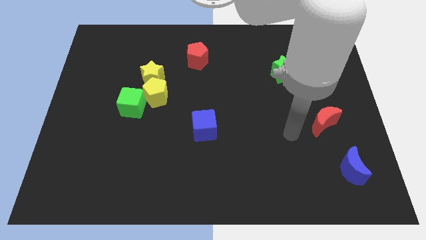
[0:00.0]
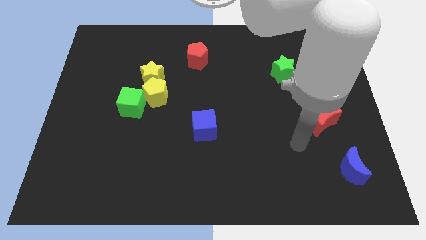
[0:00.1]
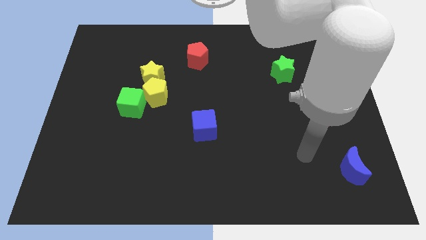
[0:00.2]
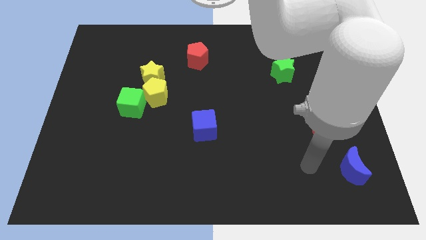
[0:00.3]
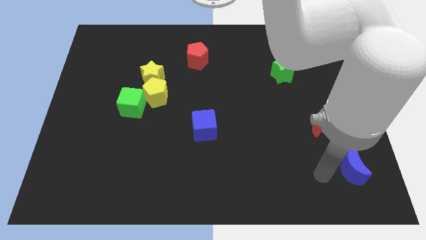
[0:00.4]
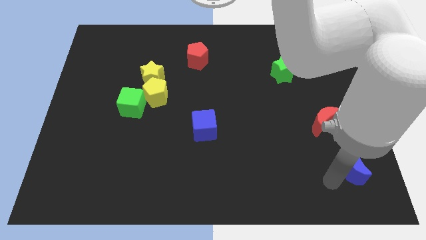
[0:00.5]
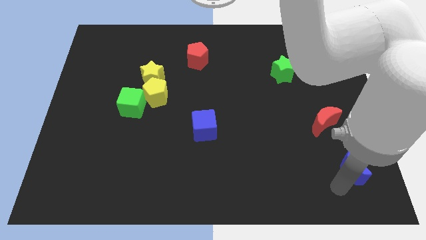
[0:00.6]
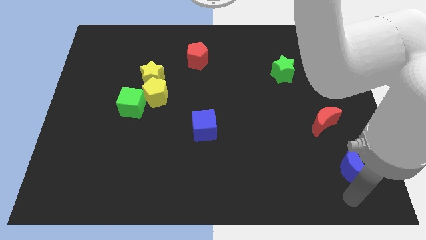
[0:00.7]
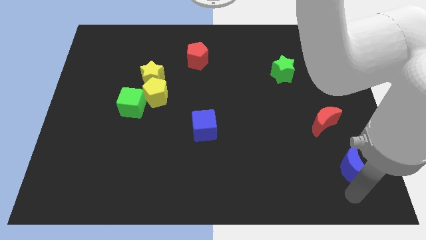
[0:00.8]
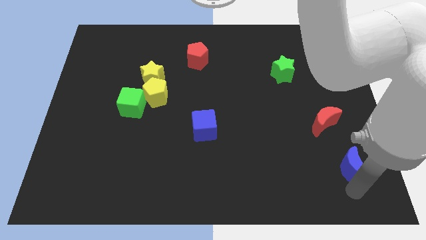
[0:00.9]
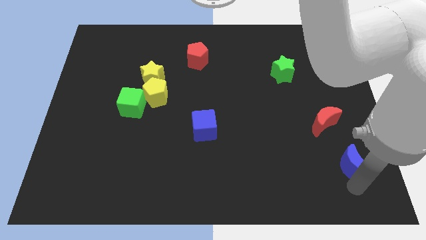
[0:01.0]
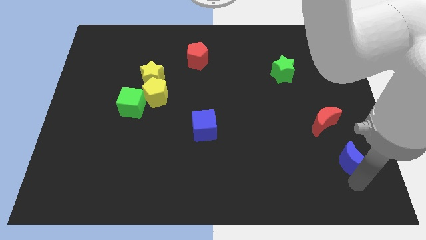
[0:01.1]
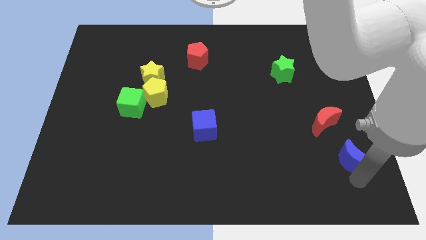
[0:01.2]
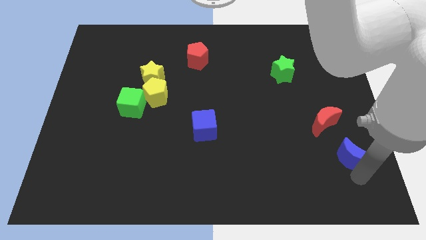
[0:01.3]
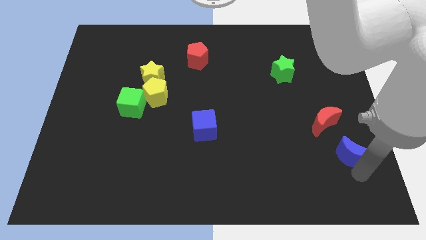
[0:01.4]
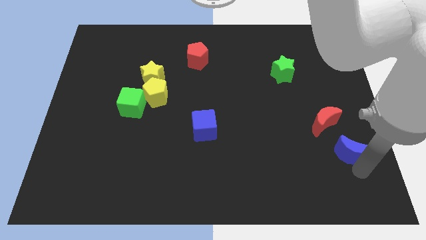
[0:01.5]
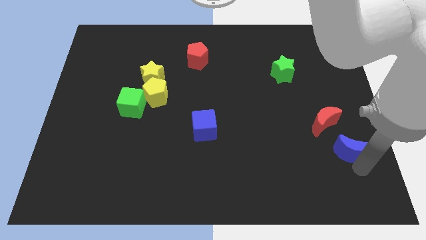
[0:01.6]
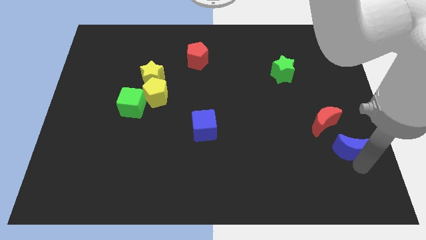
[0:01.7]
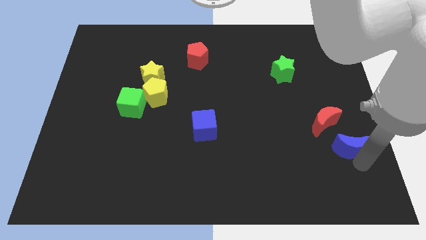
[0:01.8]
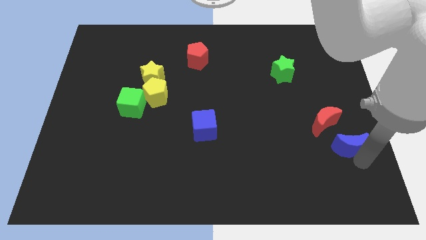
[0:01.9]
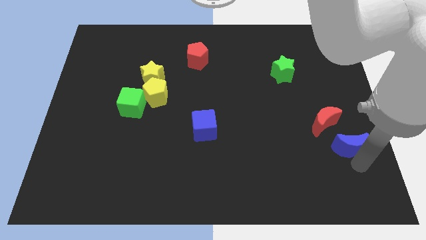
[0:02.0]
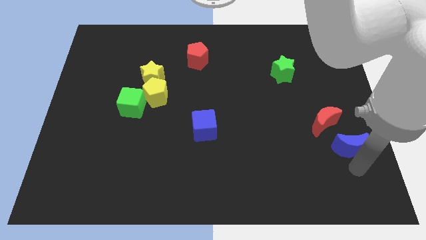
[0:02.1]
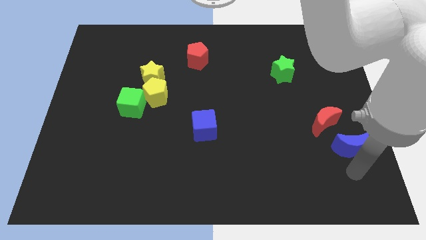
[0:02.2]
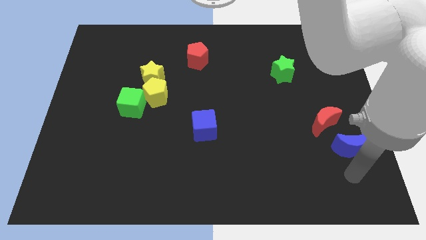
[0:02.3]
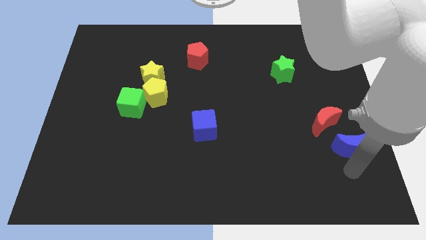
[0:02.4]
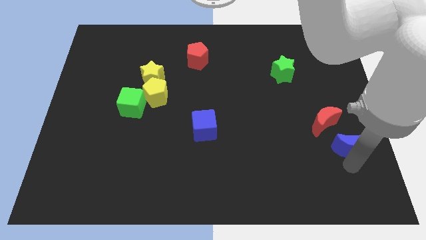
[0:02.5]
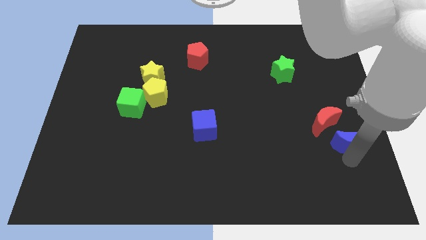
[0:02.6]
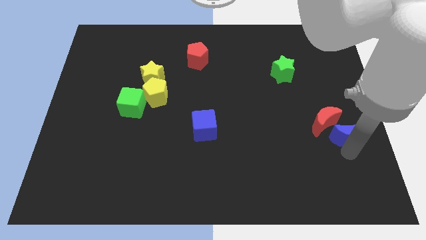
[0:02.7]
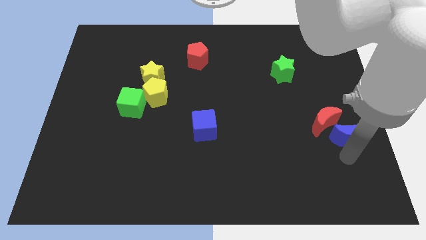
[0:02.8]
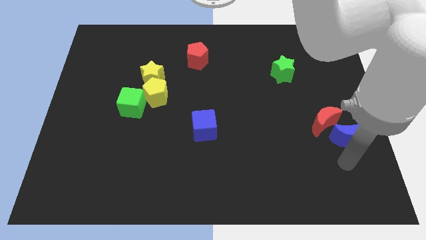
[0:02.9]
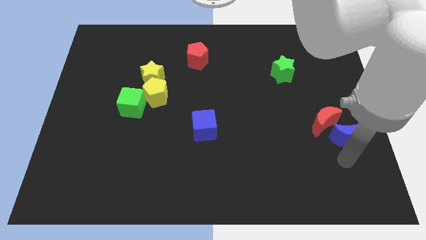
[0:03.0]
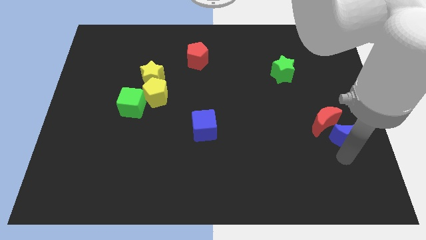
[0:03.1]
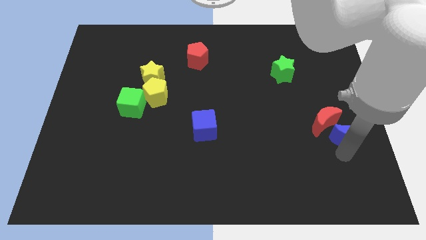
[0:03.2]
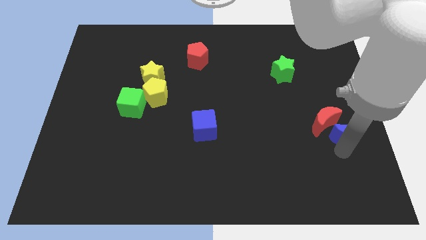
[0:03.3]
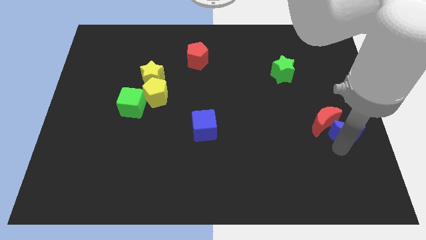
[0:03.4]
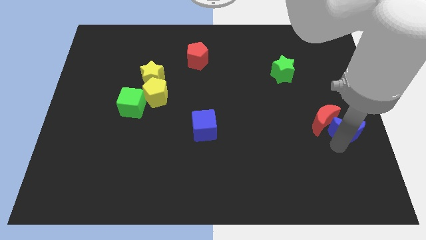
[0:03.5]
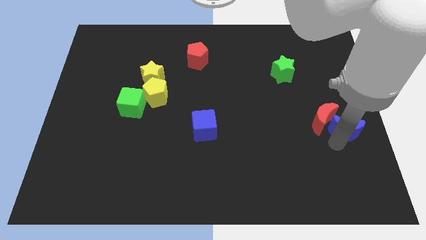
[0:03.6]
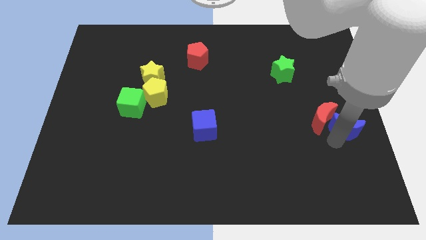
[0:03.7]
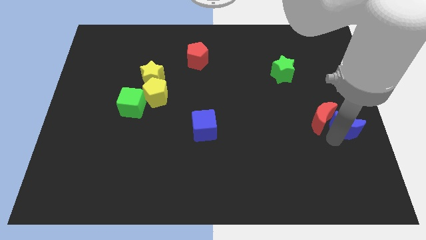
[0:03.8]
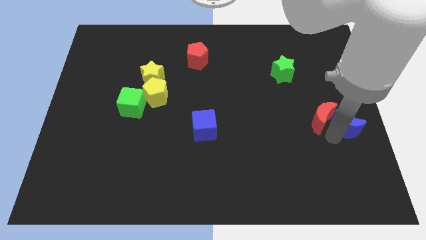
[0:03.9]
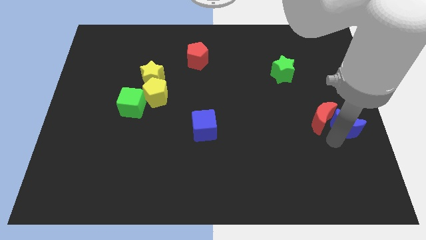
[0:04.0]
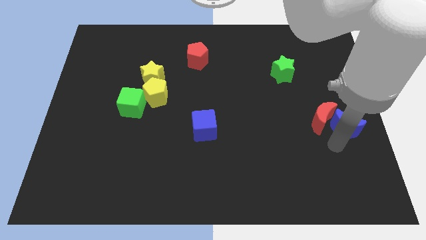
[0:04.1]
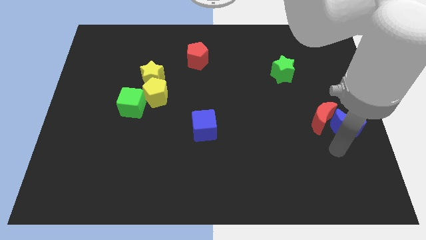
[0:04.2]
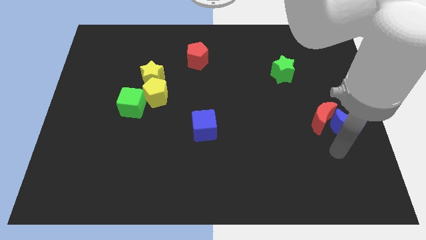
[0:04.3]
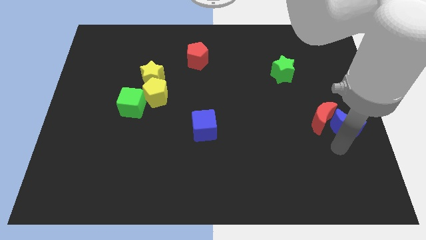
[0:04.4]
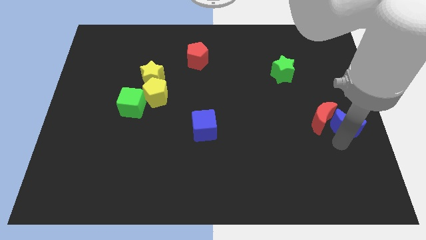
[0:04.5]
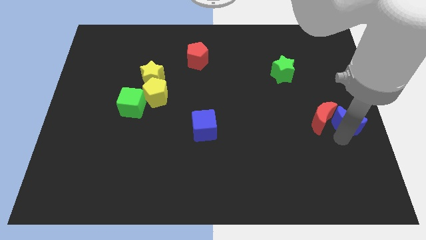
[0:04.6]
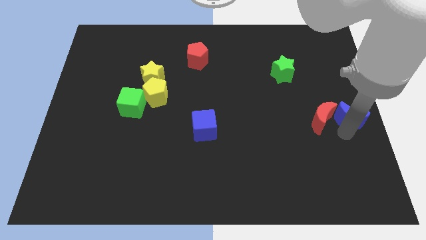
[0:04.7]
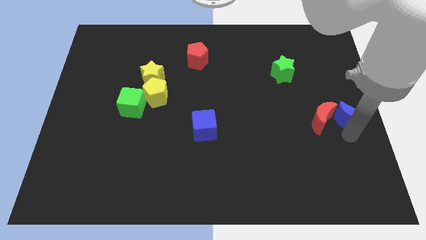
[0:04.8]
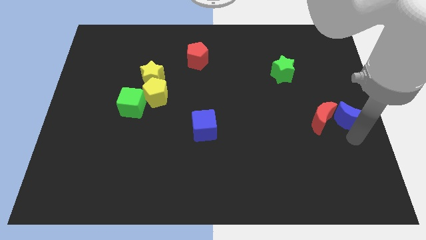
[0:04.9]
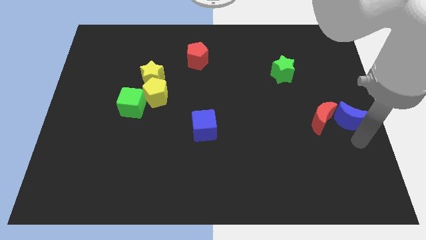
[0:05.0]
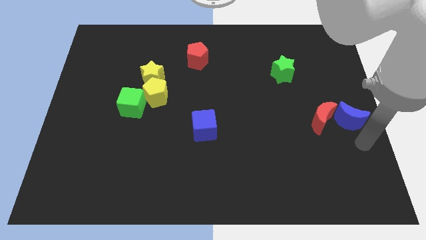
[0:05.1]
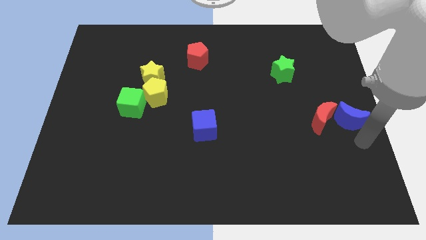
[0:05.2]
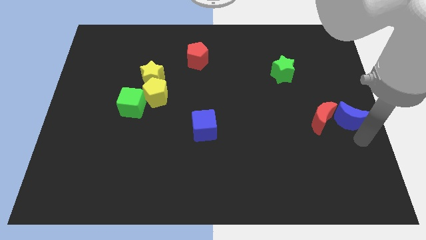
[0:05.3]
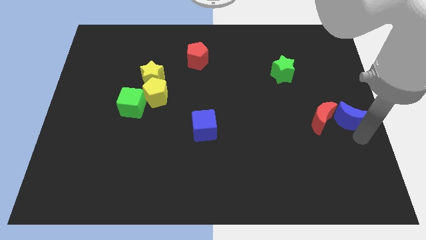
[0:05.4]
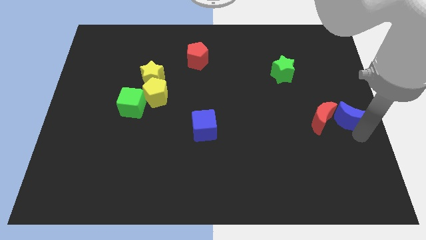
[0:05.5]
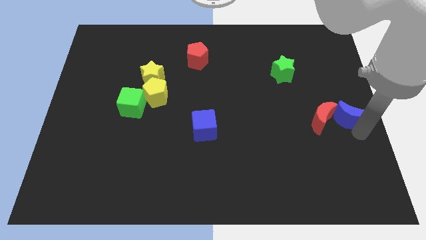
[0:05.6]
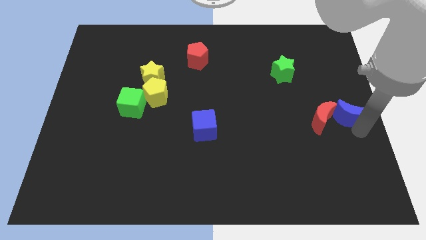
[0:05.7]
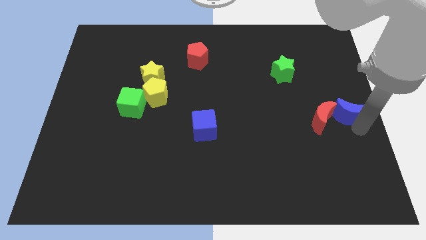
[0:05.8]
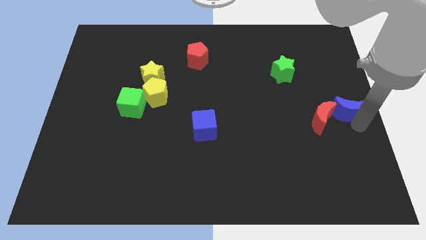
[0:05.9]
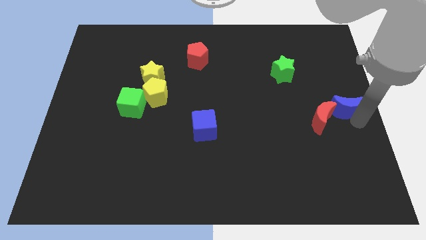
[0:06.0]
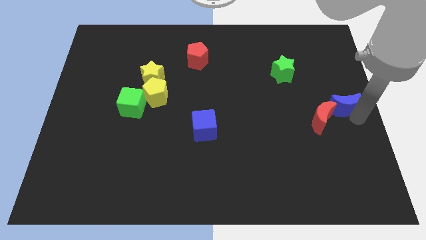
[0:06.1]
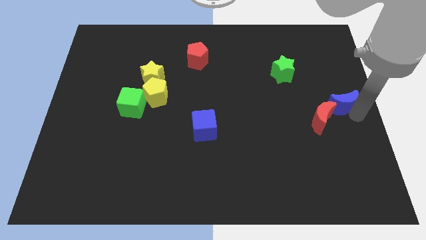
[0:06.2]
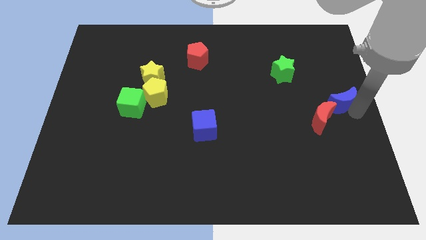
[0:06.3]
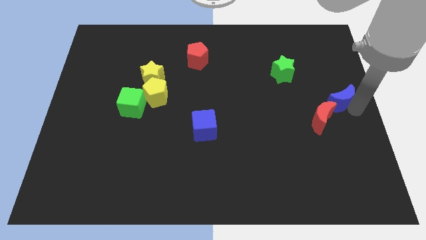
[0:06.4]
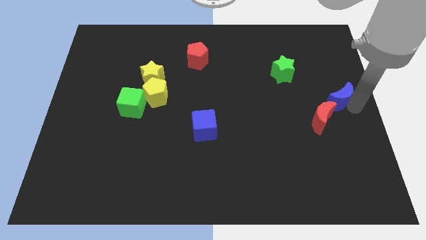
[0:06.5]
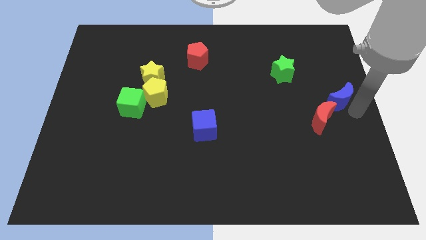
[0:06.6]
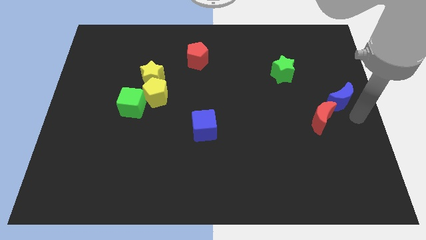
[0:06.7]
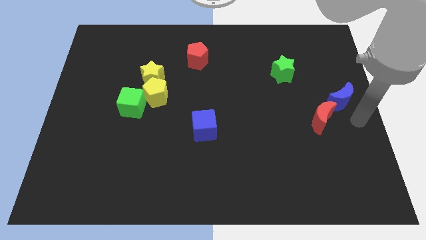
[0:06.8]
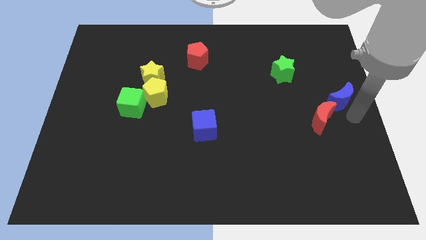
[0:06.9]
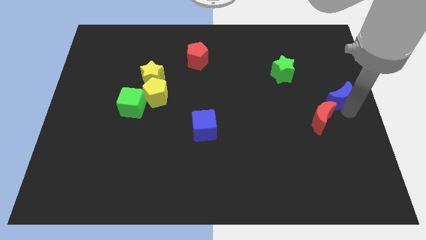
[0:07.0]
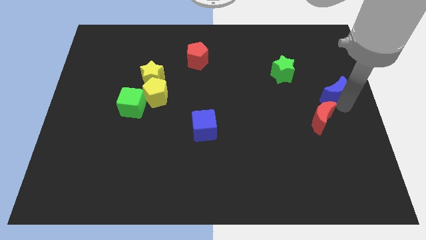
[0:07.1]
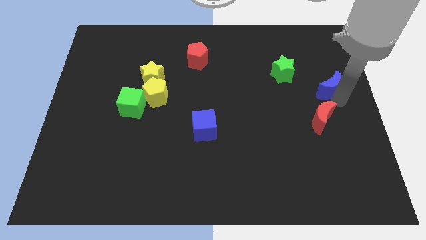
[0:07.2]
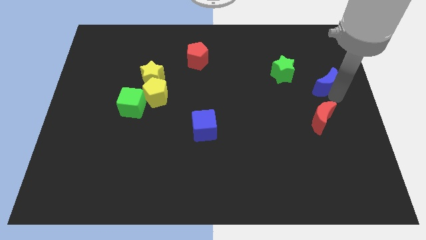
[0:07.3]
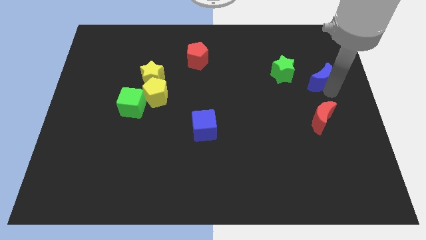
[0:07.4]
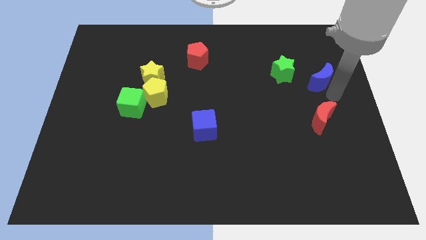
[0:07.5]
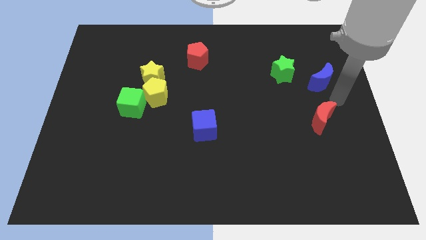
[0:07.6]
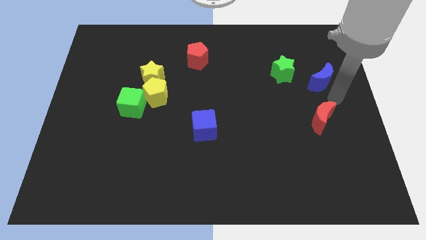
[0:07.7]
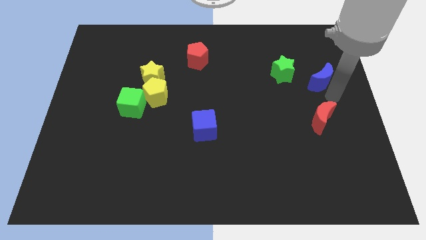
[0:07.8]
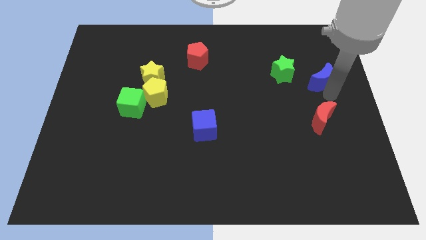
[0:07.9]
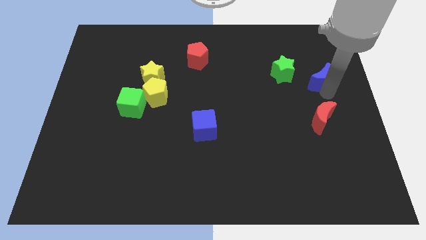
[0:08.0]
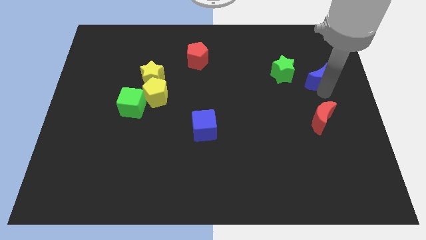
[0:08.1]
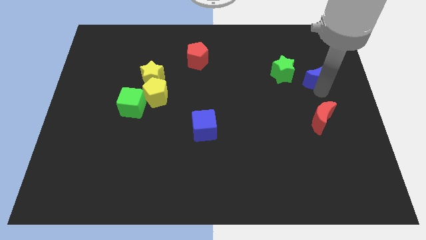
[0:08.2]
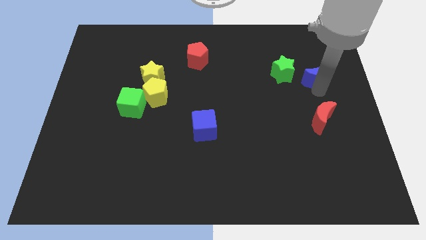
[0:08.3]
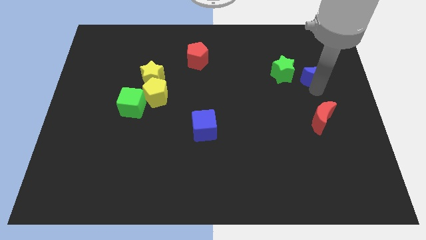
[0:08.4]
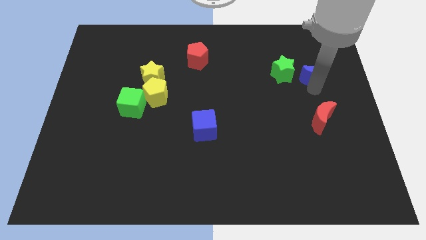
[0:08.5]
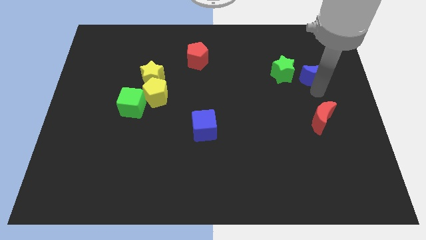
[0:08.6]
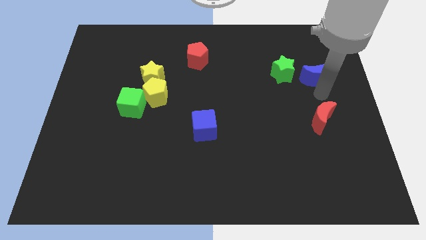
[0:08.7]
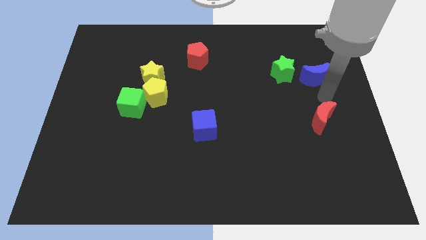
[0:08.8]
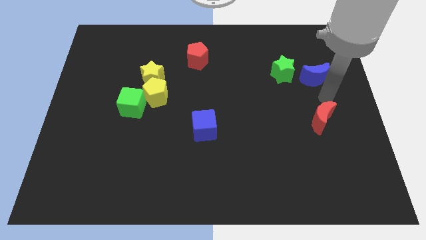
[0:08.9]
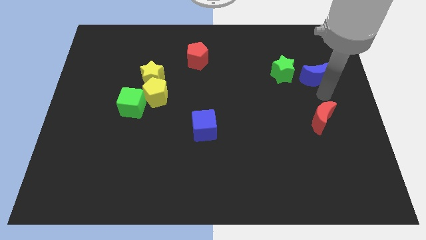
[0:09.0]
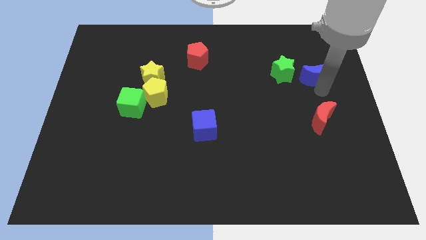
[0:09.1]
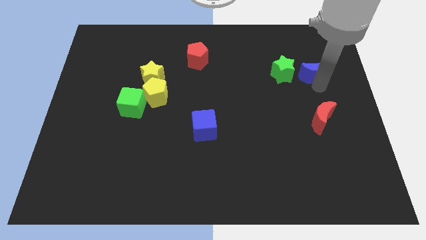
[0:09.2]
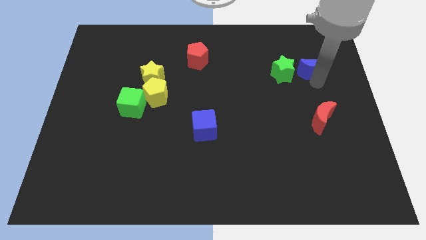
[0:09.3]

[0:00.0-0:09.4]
slide the blue moon diagonally up and to the right of the green star
